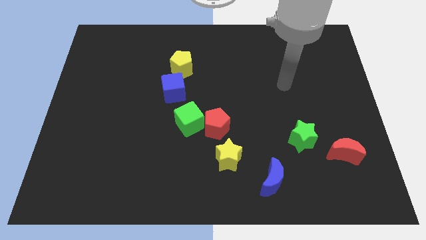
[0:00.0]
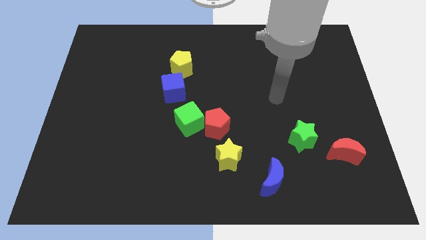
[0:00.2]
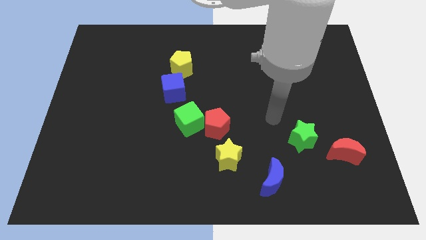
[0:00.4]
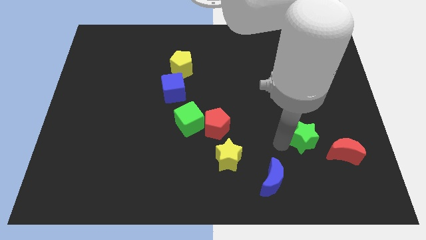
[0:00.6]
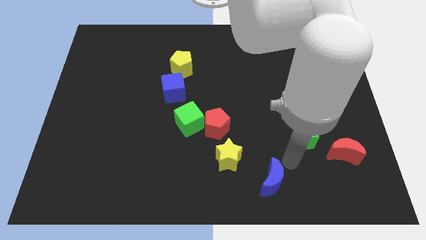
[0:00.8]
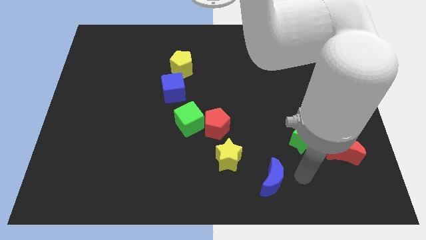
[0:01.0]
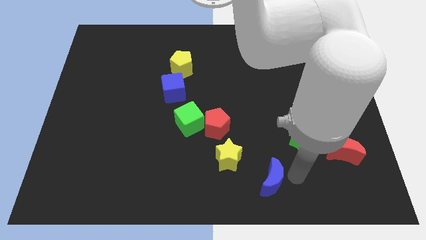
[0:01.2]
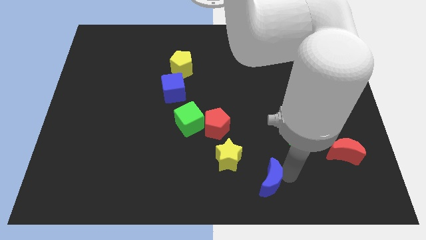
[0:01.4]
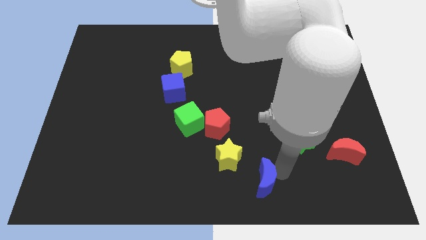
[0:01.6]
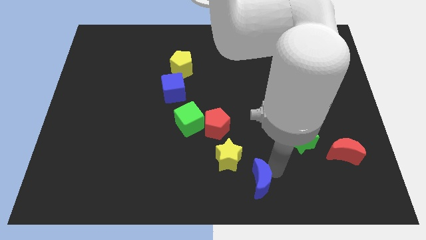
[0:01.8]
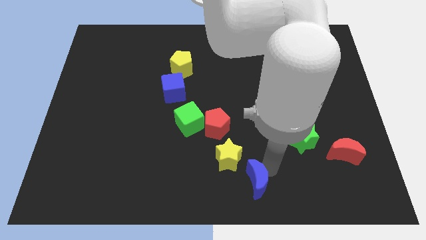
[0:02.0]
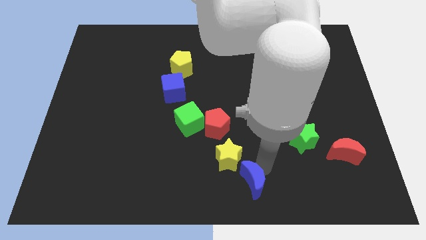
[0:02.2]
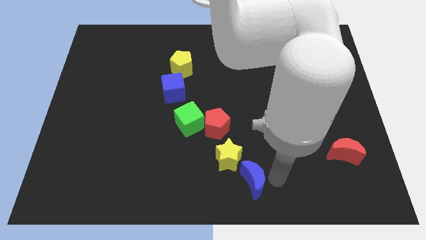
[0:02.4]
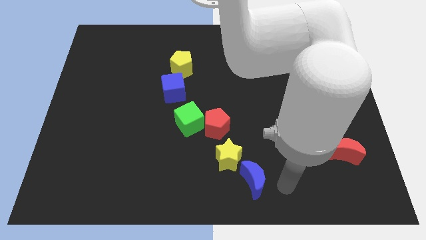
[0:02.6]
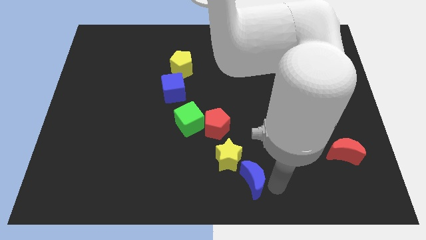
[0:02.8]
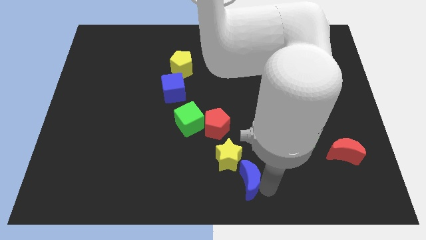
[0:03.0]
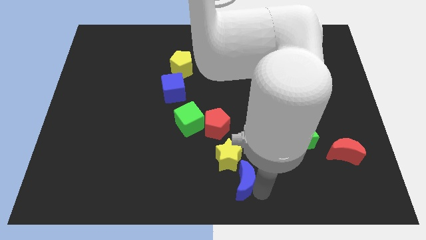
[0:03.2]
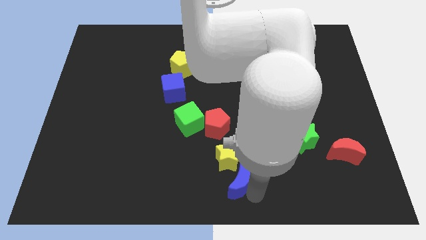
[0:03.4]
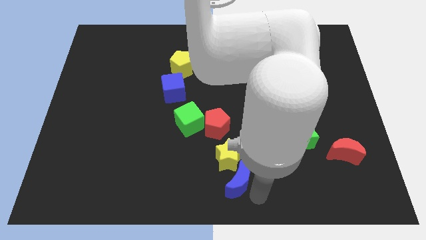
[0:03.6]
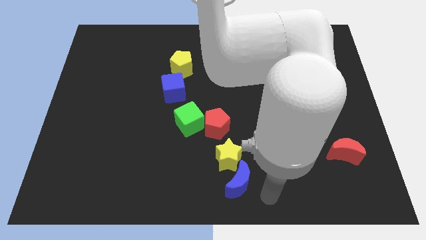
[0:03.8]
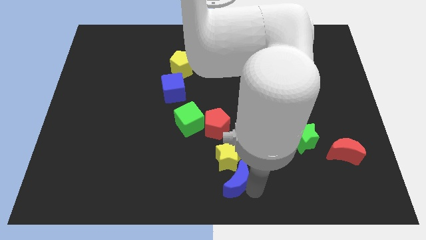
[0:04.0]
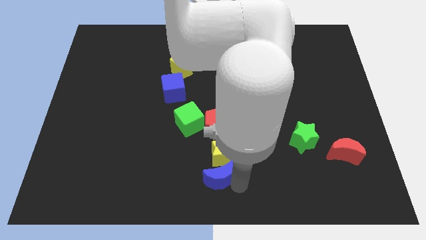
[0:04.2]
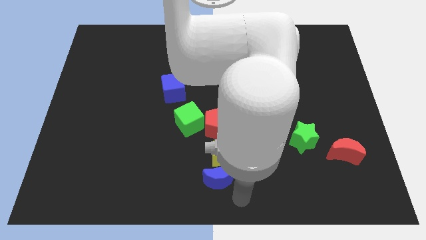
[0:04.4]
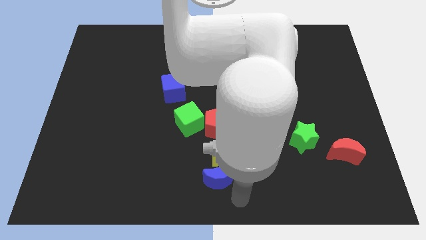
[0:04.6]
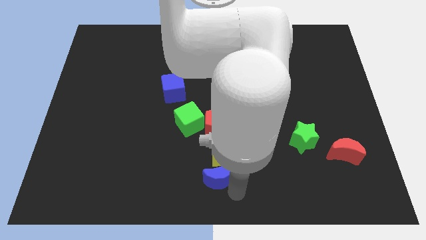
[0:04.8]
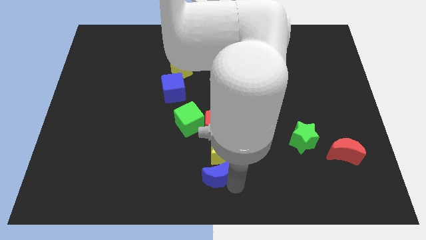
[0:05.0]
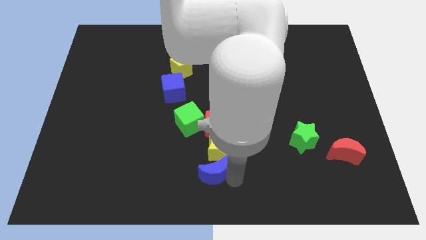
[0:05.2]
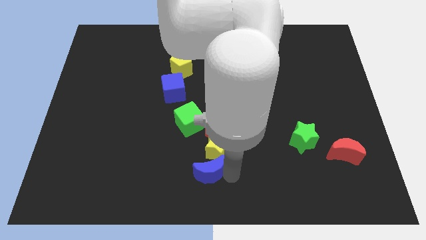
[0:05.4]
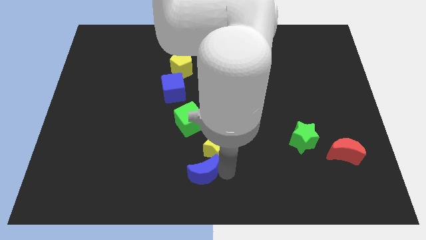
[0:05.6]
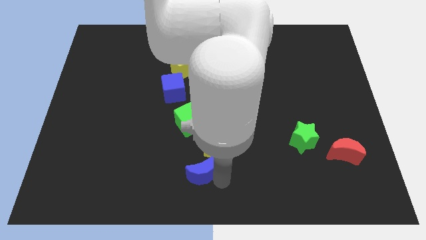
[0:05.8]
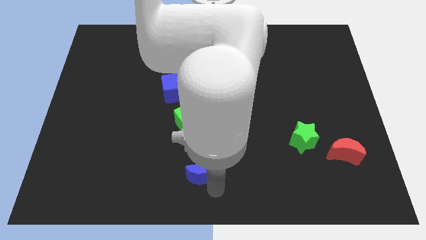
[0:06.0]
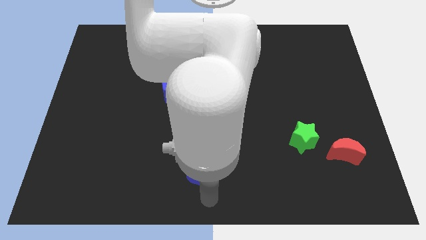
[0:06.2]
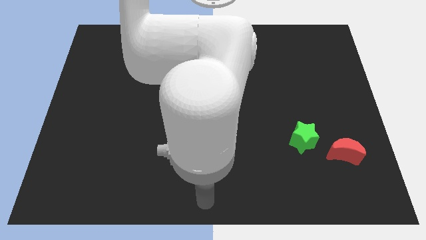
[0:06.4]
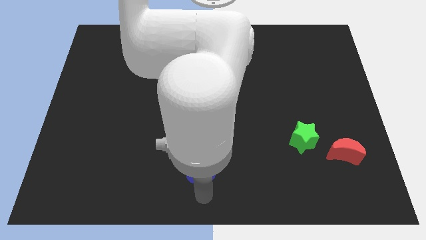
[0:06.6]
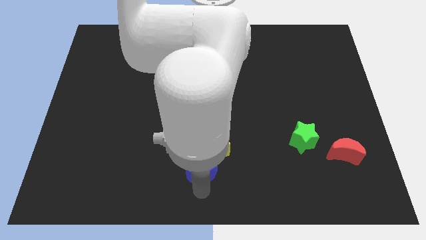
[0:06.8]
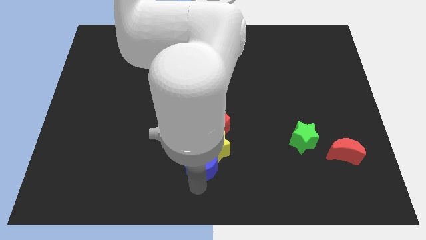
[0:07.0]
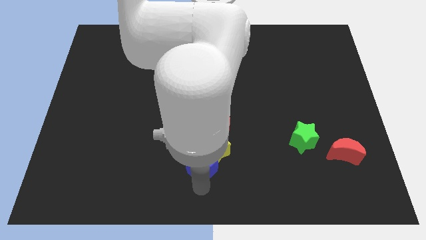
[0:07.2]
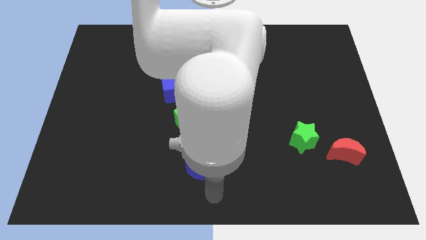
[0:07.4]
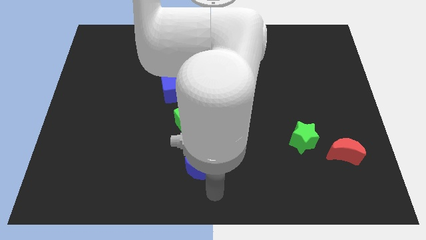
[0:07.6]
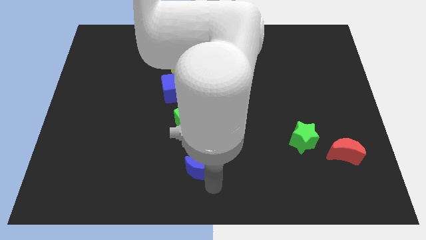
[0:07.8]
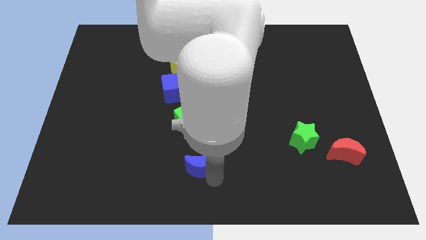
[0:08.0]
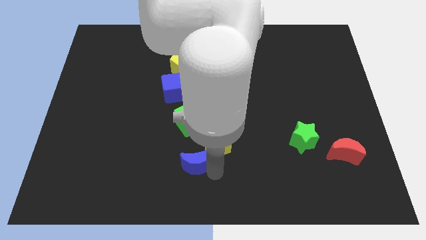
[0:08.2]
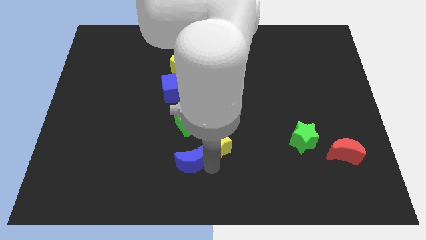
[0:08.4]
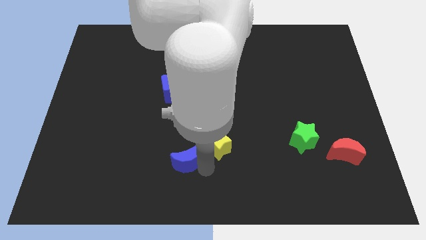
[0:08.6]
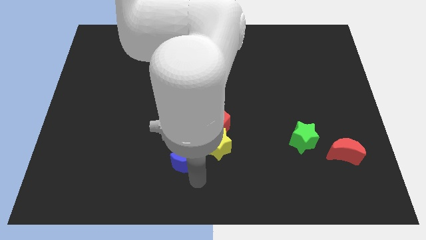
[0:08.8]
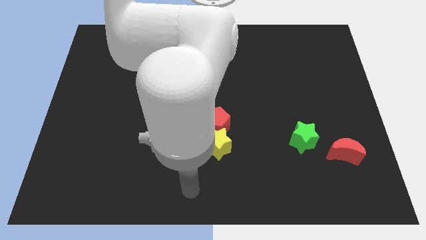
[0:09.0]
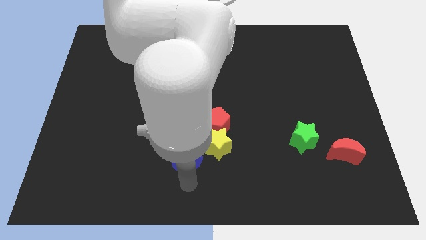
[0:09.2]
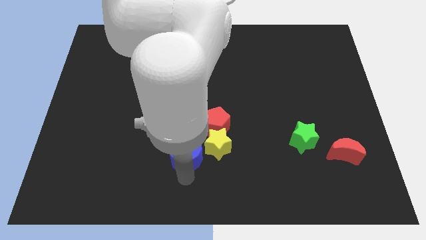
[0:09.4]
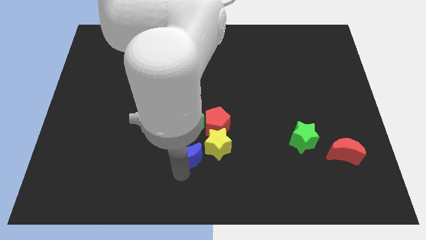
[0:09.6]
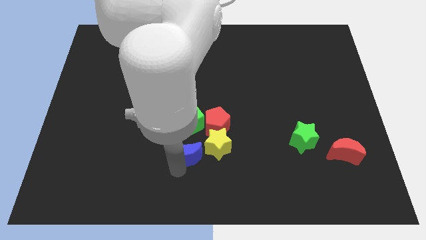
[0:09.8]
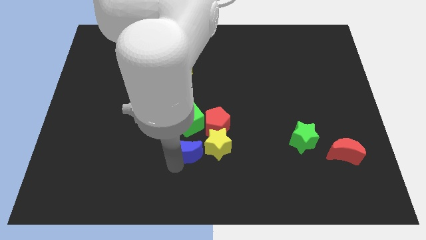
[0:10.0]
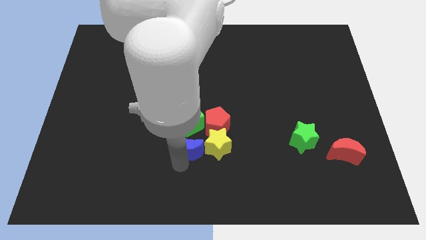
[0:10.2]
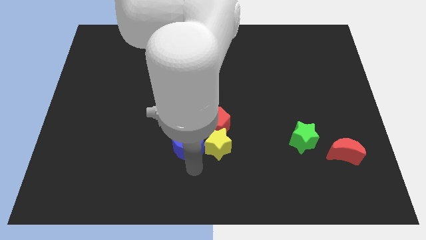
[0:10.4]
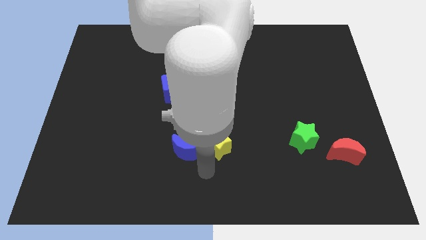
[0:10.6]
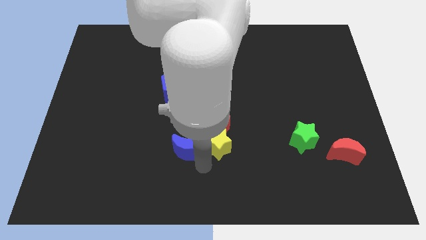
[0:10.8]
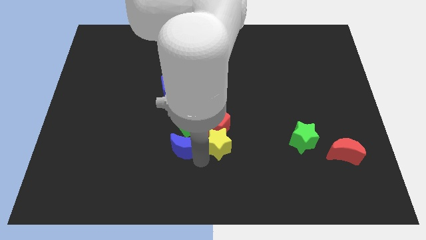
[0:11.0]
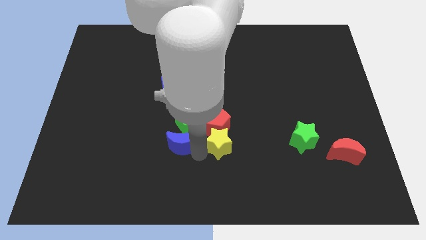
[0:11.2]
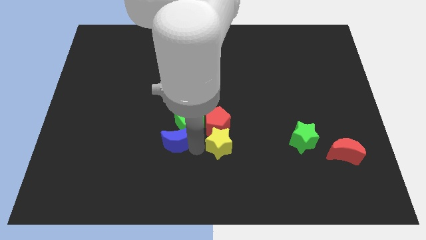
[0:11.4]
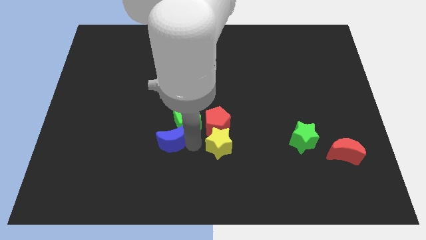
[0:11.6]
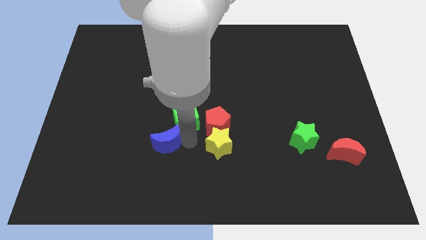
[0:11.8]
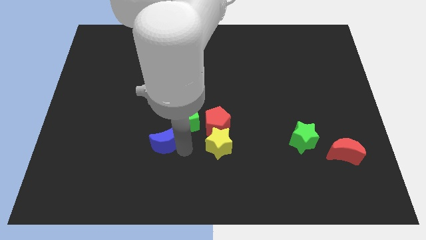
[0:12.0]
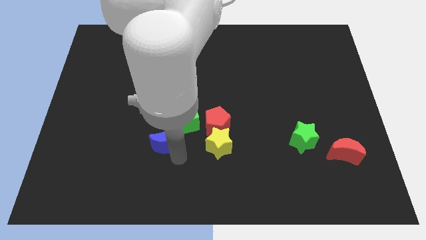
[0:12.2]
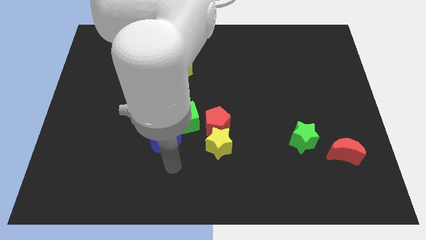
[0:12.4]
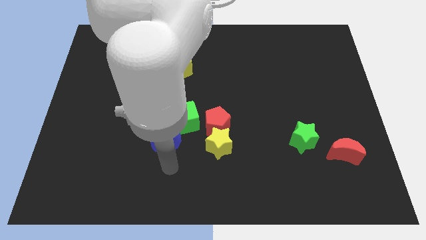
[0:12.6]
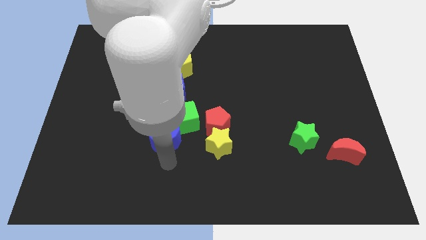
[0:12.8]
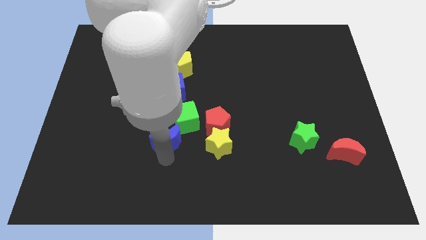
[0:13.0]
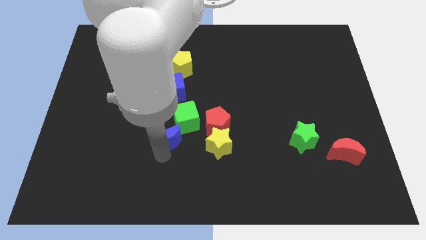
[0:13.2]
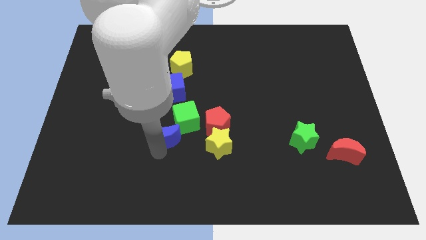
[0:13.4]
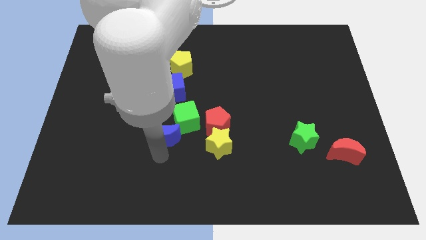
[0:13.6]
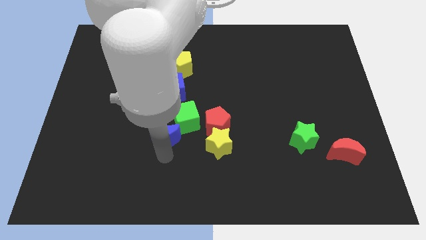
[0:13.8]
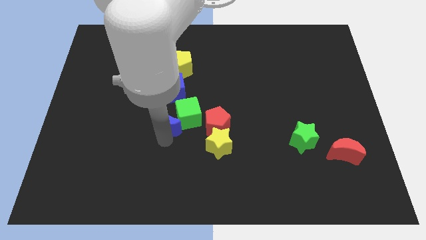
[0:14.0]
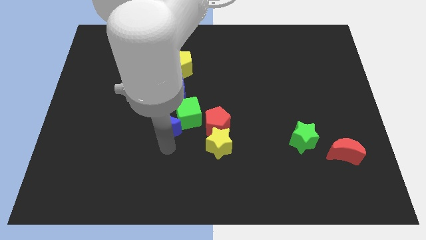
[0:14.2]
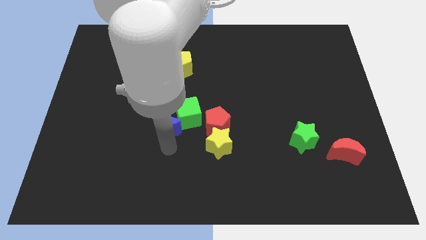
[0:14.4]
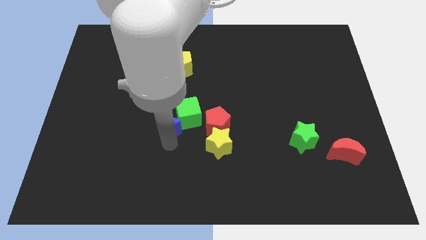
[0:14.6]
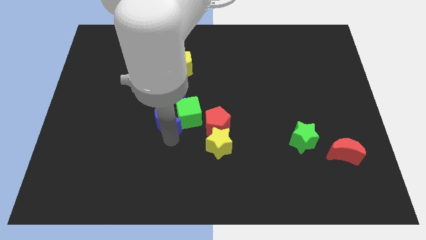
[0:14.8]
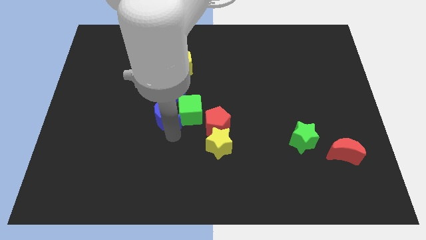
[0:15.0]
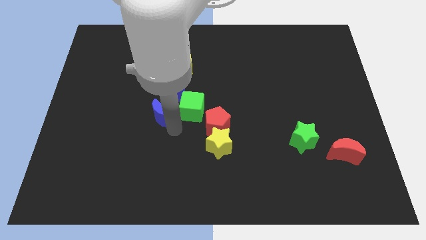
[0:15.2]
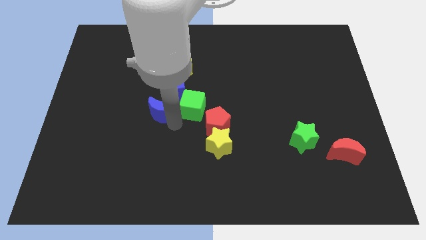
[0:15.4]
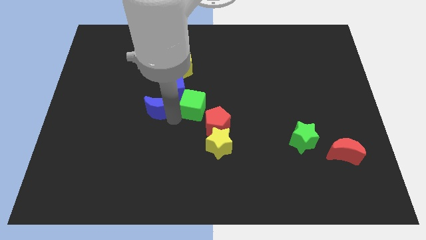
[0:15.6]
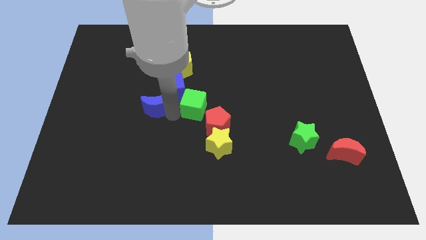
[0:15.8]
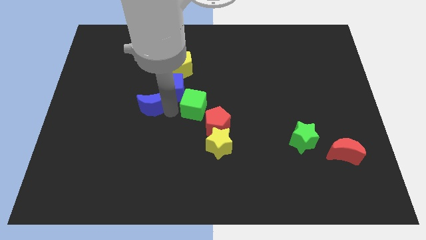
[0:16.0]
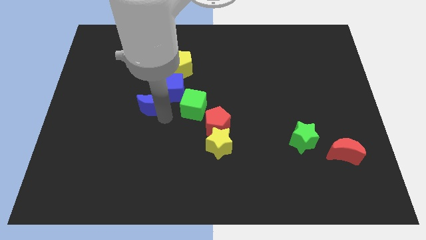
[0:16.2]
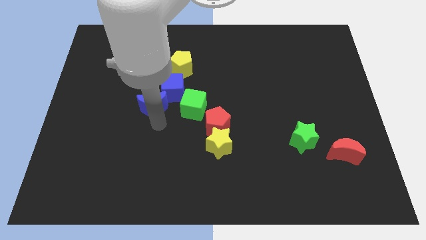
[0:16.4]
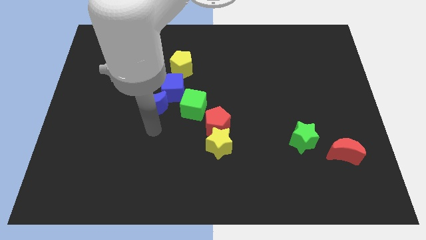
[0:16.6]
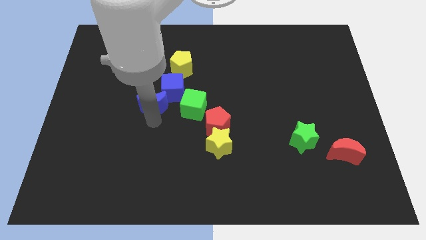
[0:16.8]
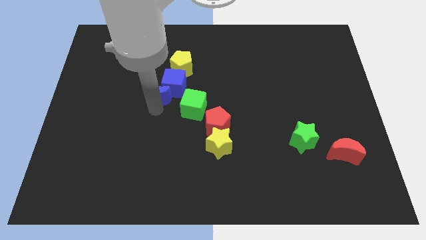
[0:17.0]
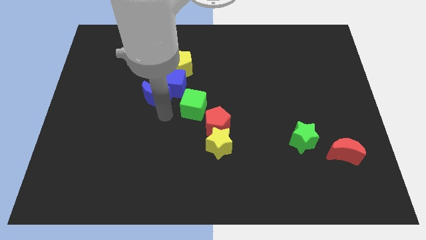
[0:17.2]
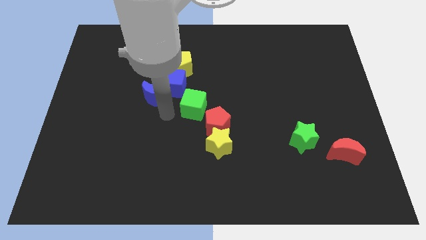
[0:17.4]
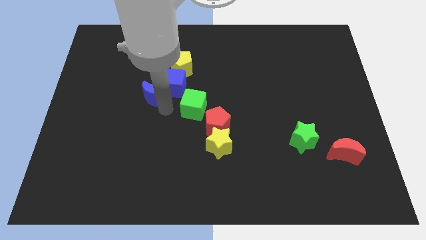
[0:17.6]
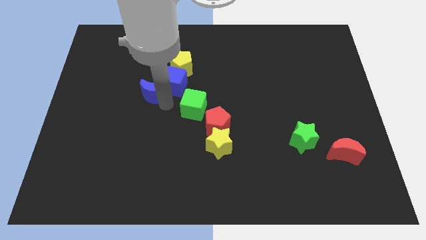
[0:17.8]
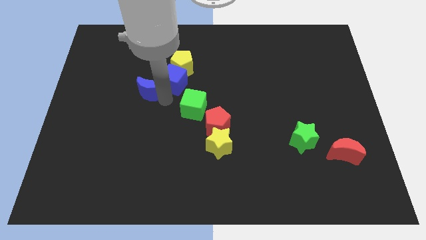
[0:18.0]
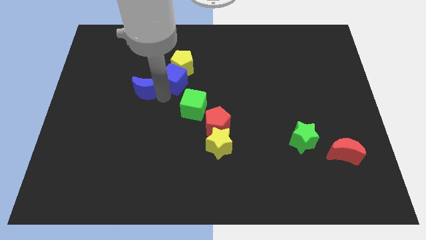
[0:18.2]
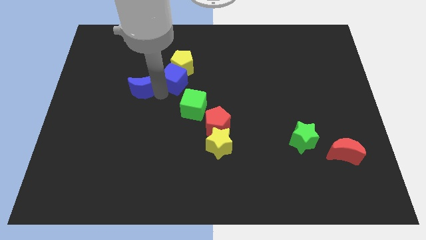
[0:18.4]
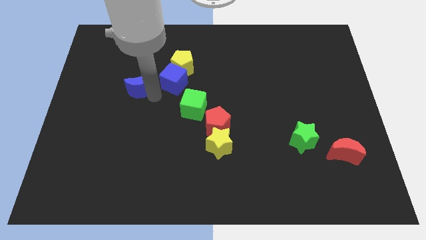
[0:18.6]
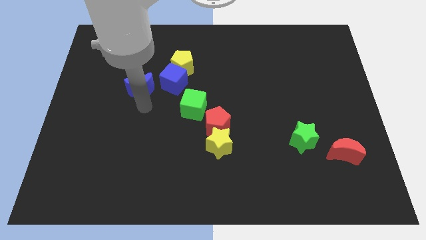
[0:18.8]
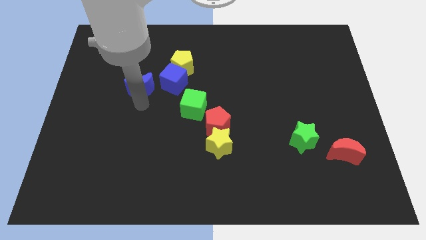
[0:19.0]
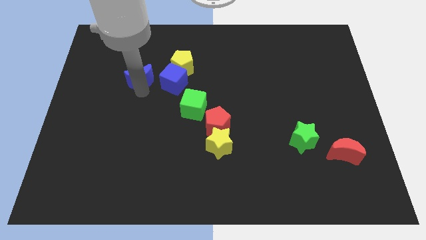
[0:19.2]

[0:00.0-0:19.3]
put the blue moon to the left of the yellow pentagon
